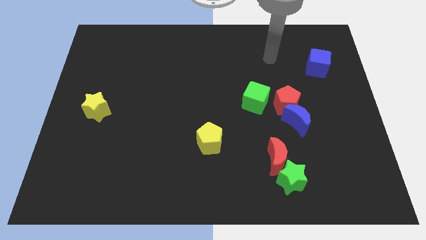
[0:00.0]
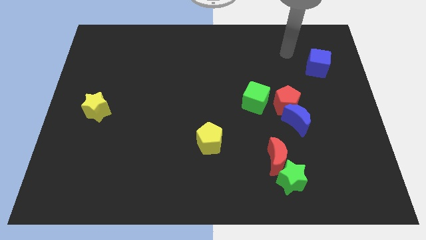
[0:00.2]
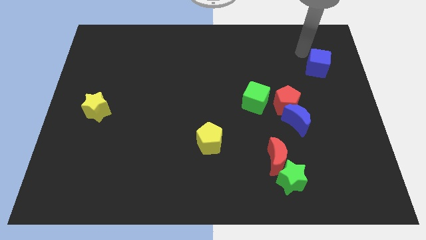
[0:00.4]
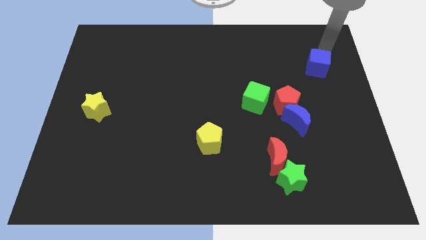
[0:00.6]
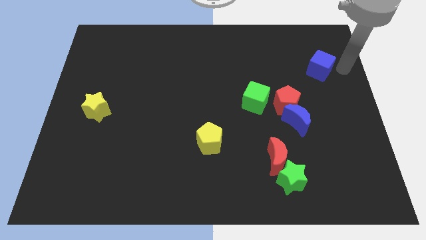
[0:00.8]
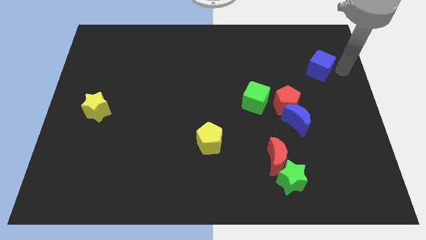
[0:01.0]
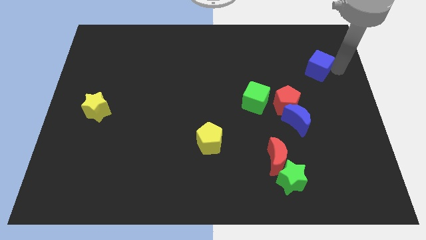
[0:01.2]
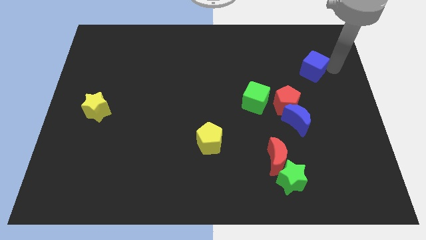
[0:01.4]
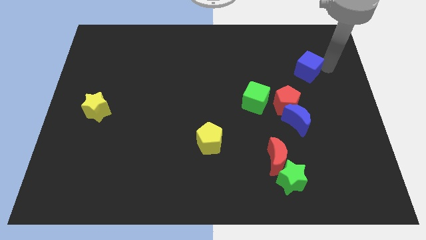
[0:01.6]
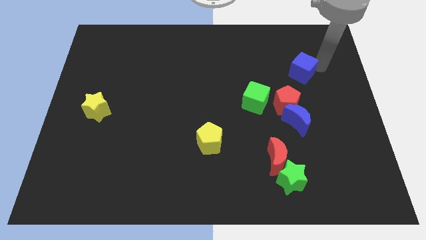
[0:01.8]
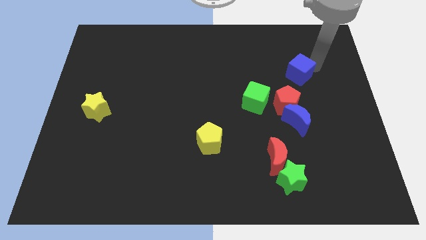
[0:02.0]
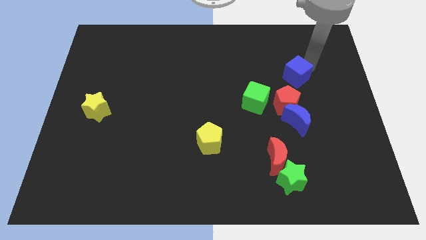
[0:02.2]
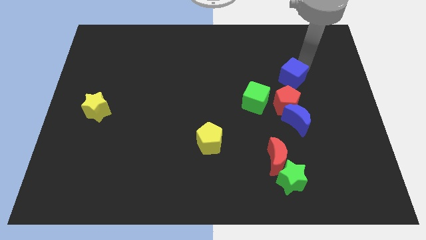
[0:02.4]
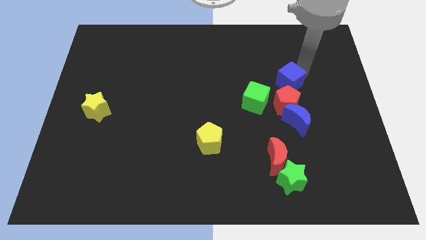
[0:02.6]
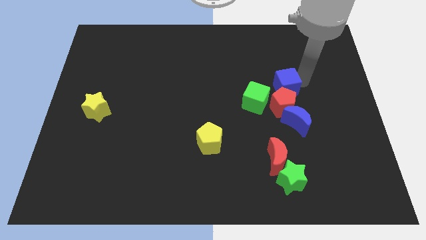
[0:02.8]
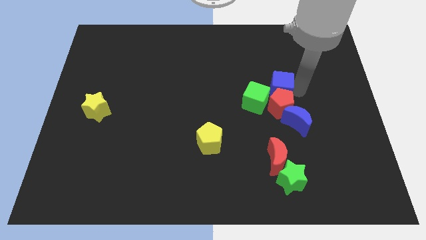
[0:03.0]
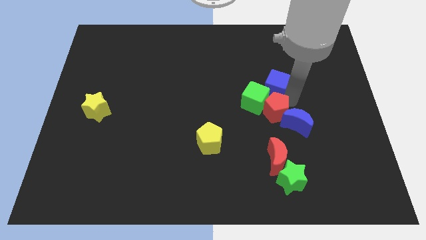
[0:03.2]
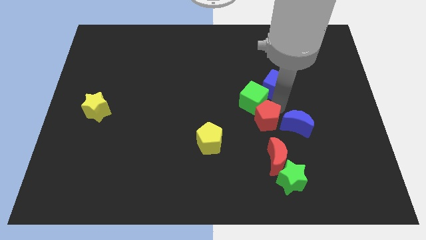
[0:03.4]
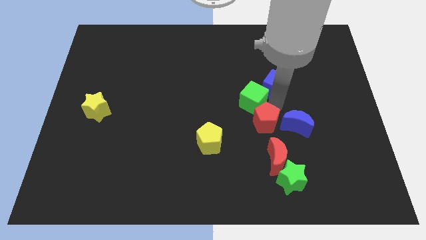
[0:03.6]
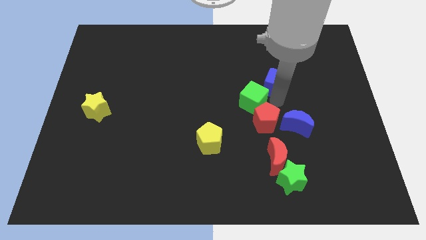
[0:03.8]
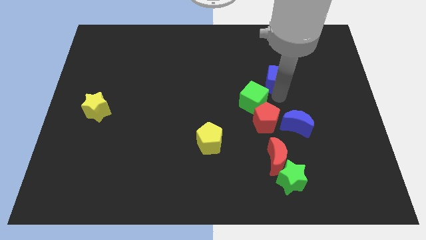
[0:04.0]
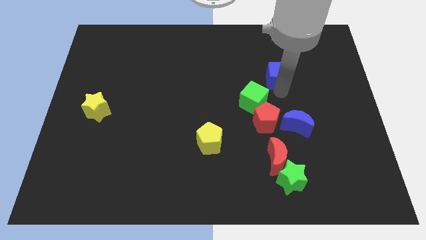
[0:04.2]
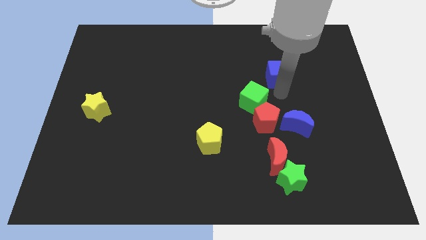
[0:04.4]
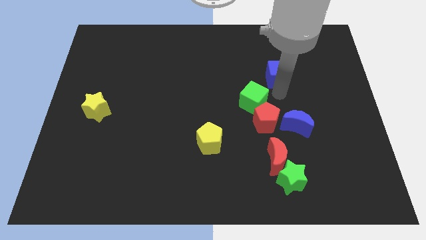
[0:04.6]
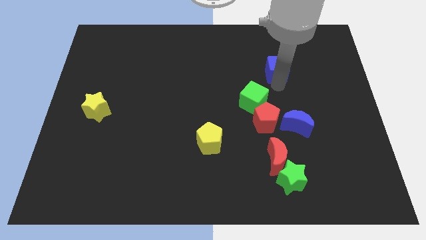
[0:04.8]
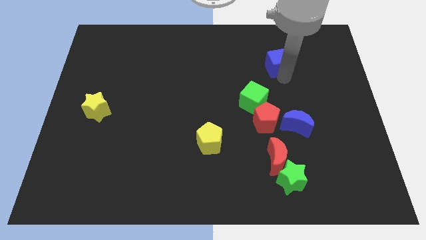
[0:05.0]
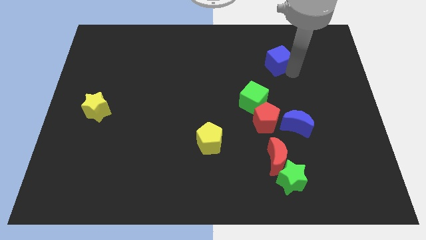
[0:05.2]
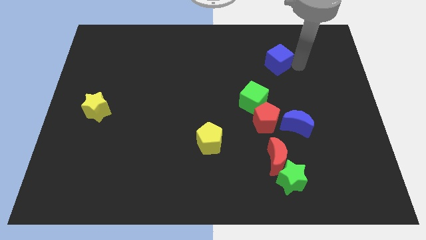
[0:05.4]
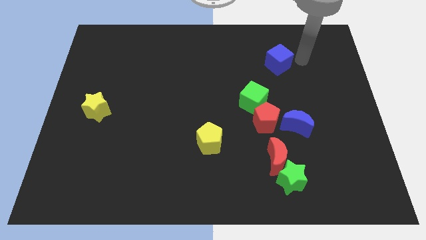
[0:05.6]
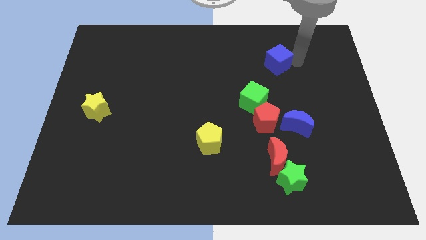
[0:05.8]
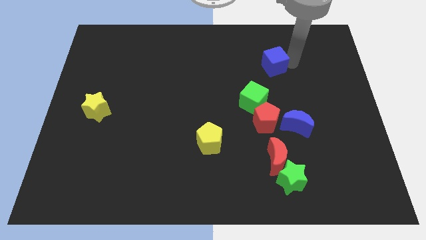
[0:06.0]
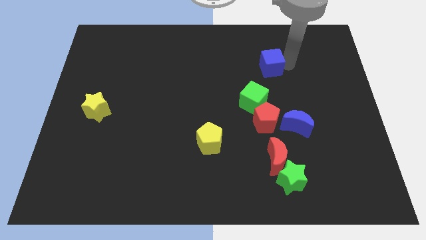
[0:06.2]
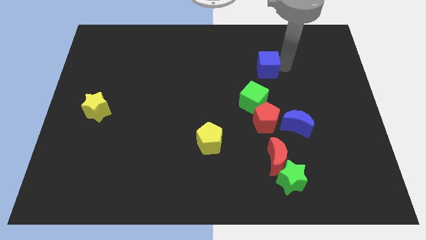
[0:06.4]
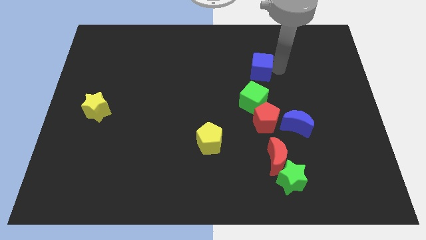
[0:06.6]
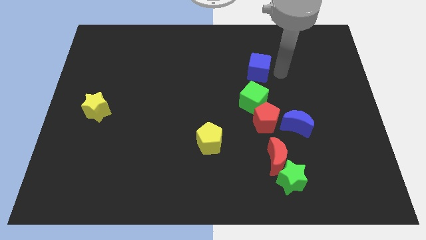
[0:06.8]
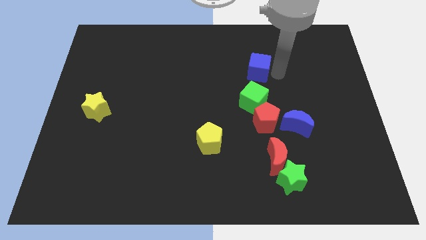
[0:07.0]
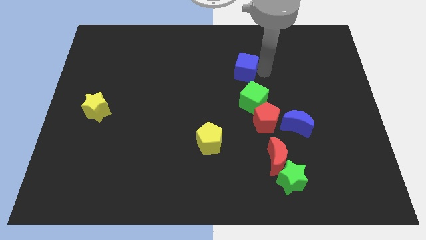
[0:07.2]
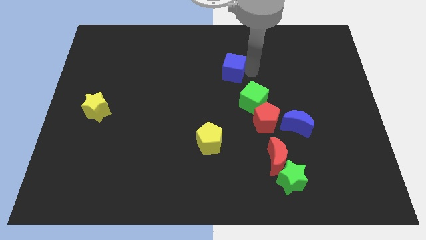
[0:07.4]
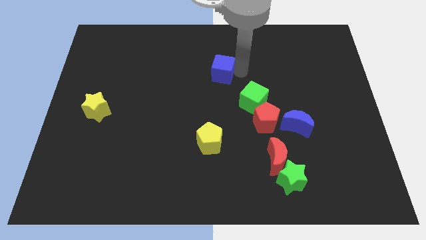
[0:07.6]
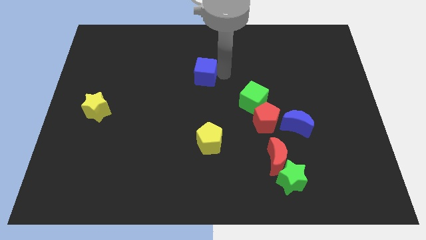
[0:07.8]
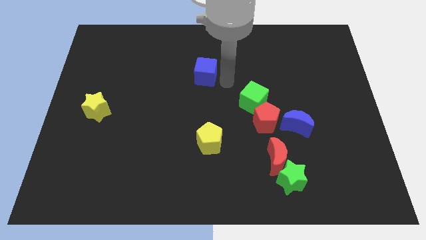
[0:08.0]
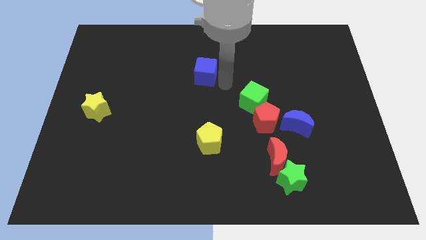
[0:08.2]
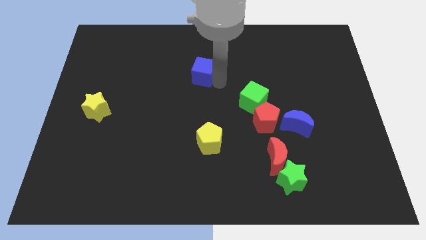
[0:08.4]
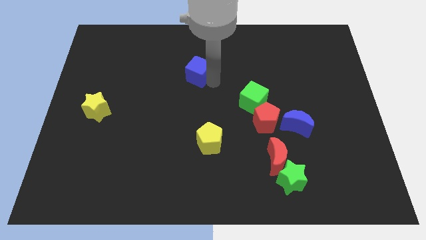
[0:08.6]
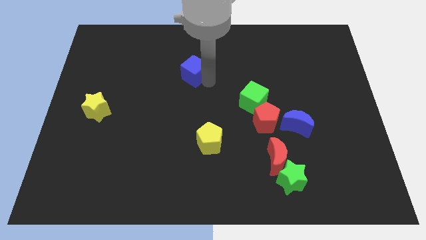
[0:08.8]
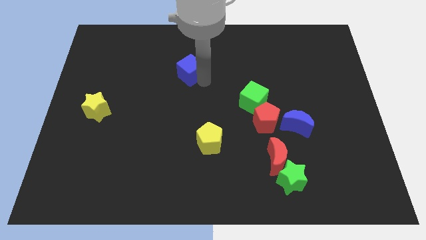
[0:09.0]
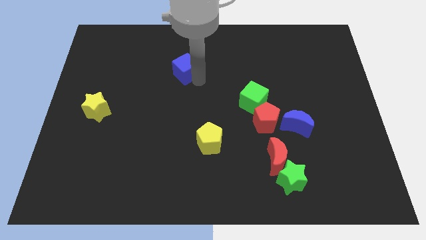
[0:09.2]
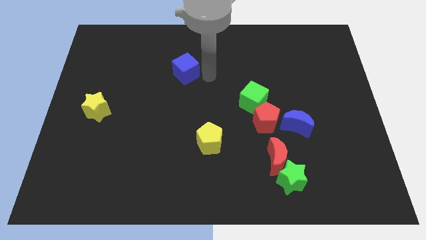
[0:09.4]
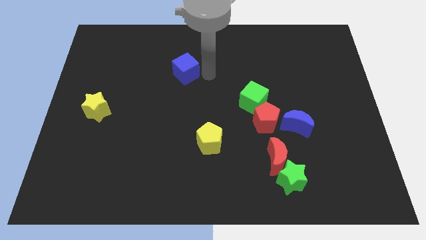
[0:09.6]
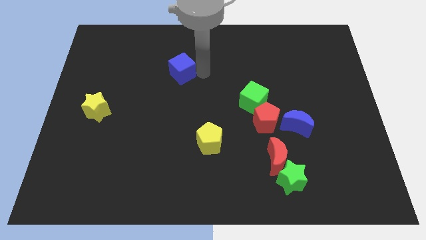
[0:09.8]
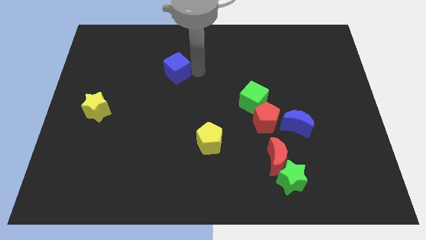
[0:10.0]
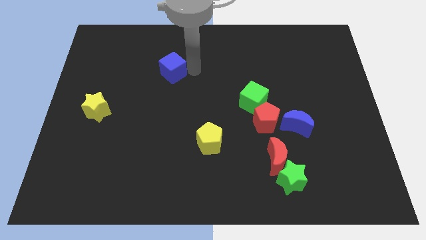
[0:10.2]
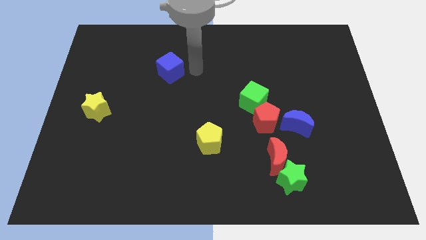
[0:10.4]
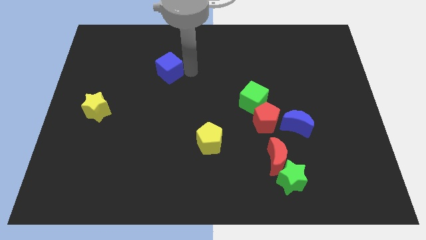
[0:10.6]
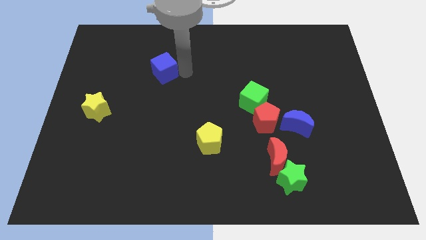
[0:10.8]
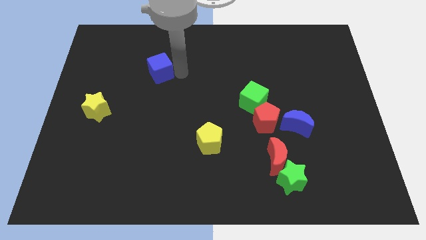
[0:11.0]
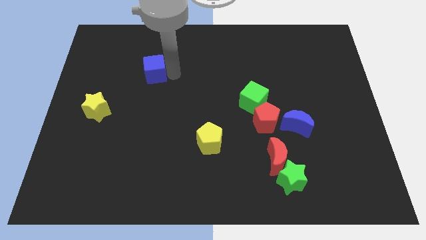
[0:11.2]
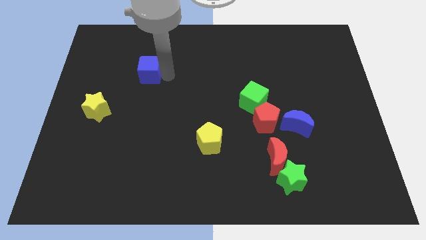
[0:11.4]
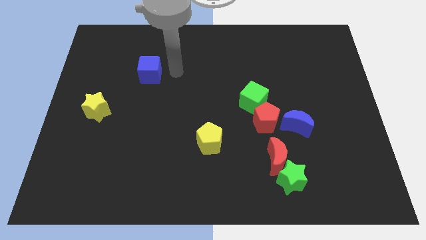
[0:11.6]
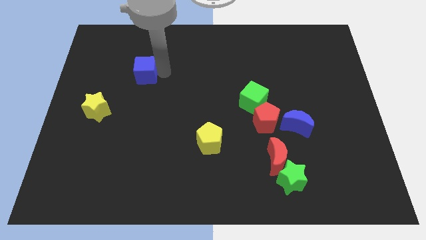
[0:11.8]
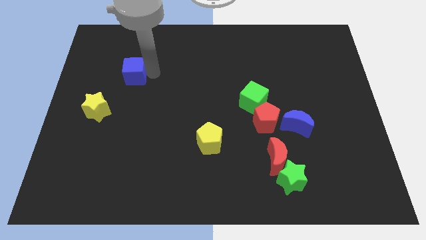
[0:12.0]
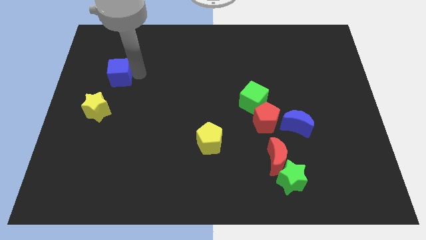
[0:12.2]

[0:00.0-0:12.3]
push the blue cube above the yellow star
